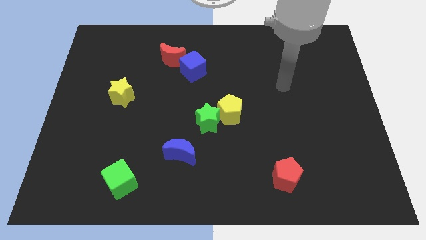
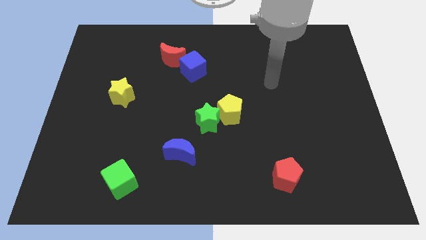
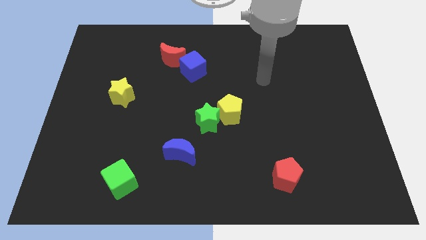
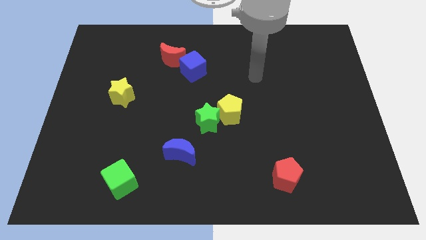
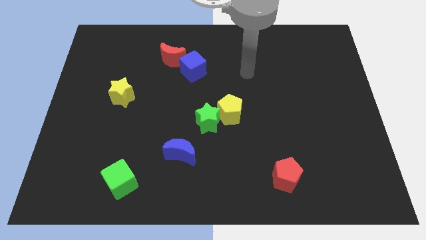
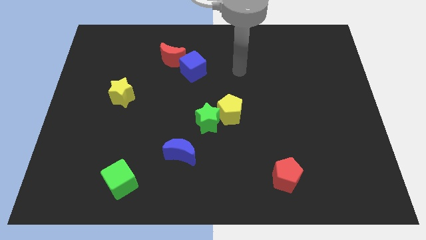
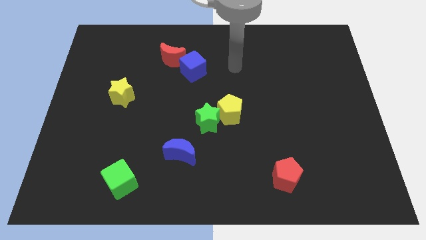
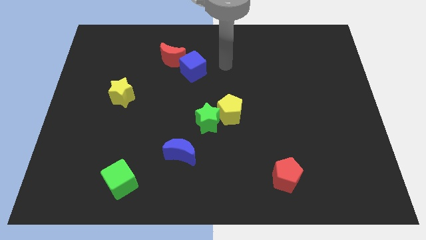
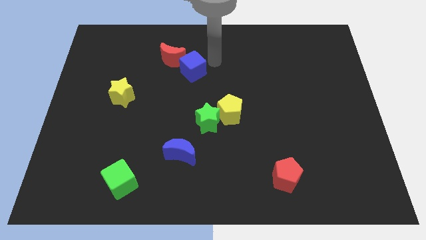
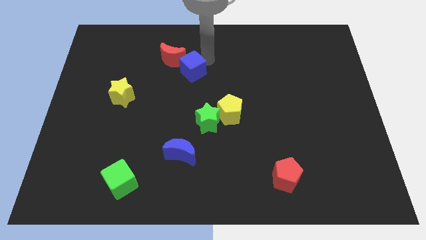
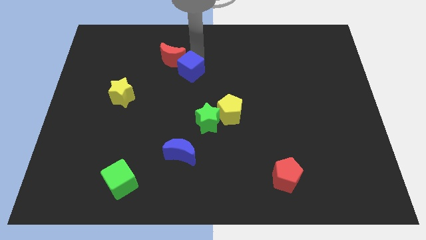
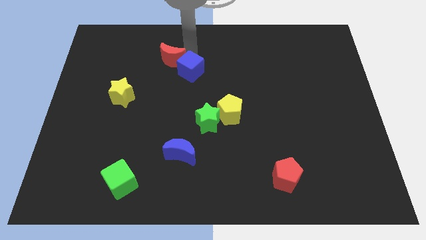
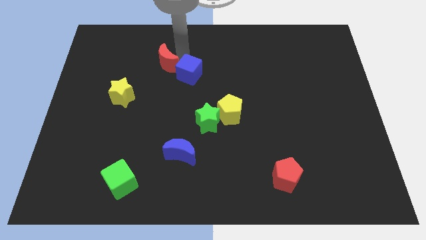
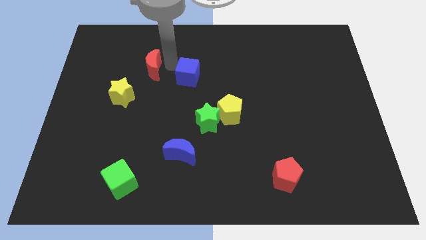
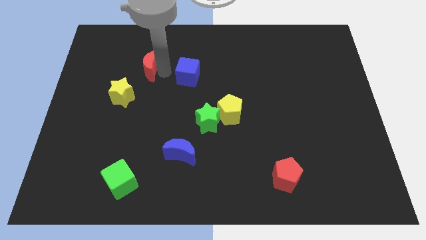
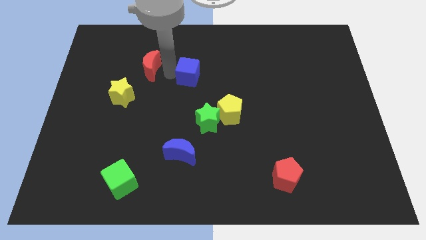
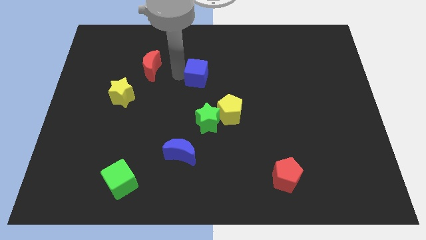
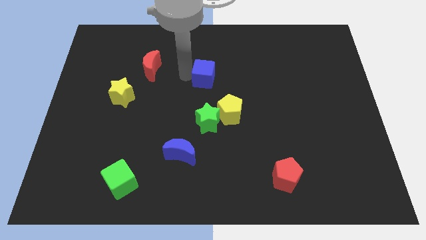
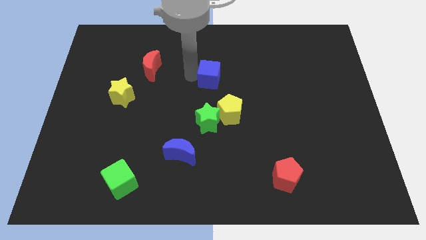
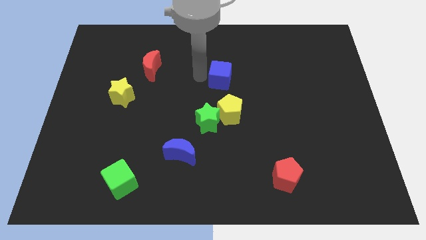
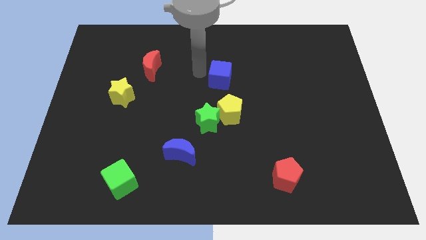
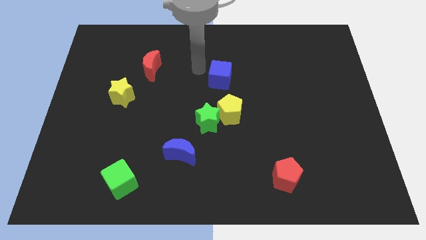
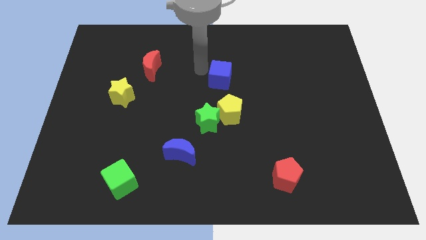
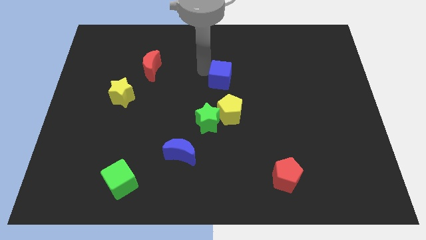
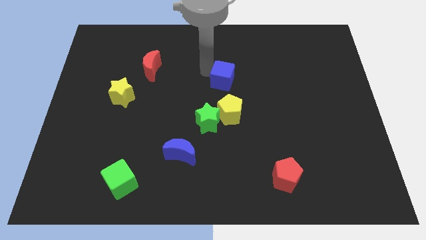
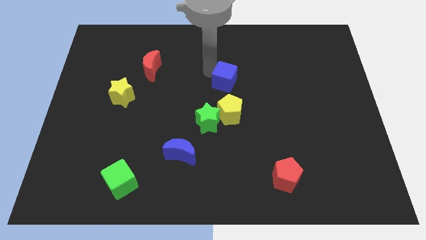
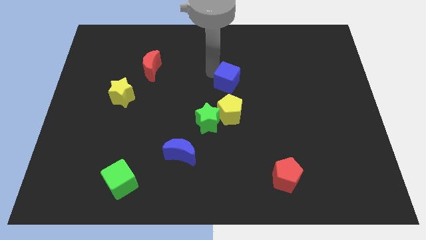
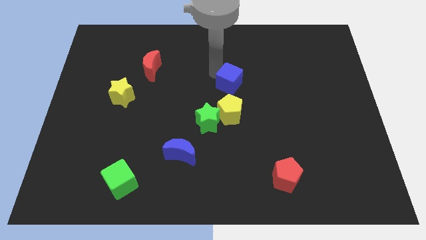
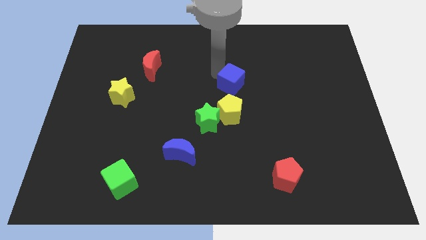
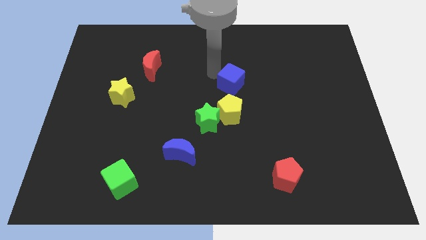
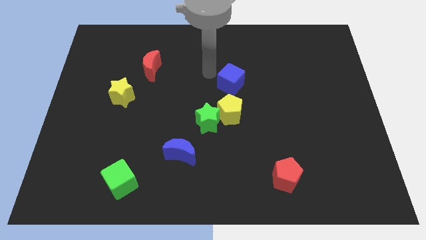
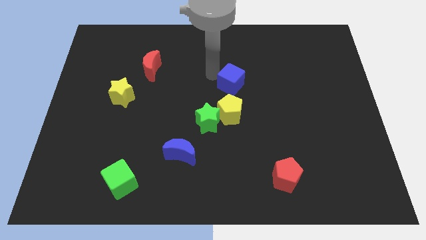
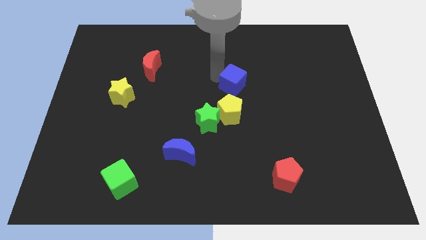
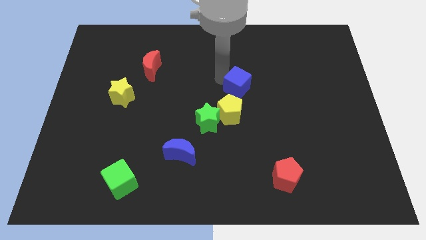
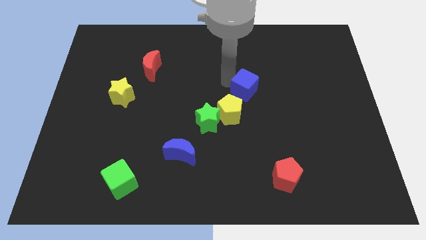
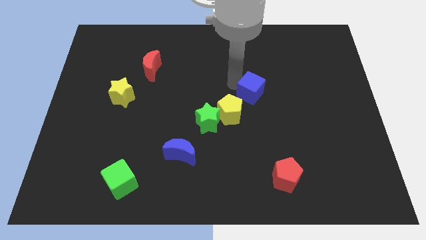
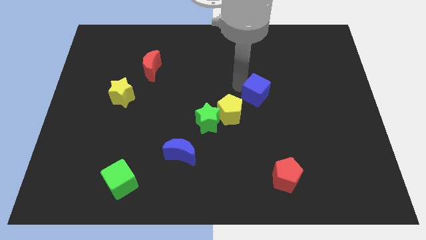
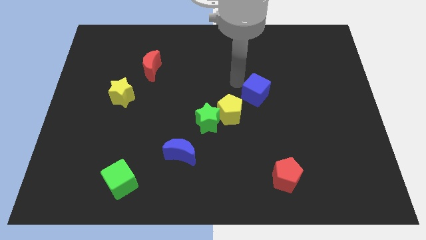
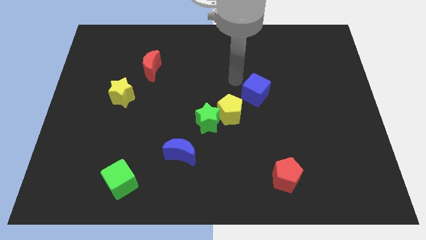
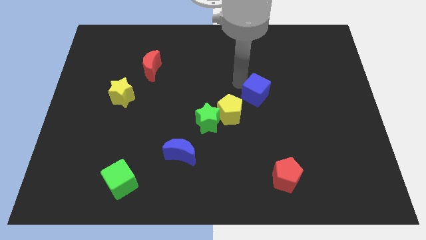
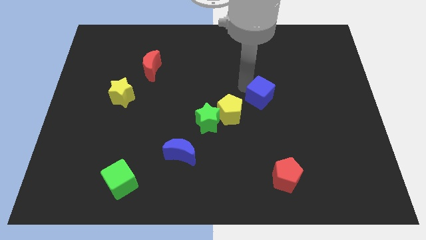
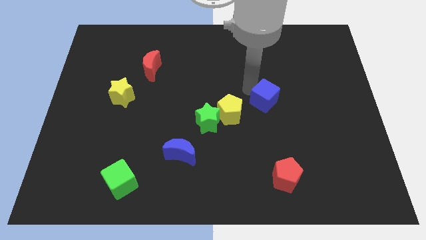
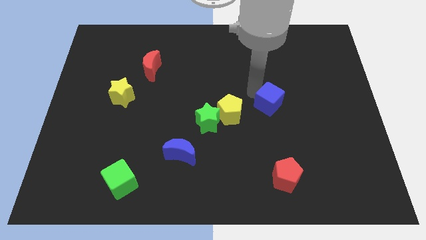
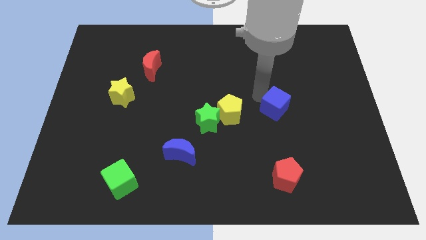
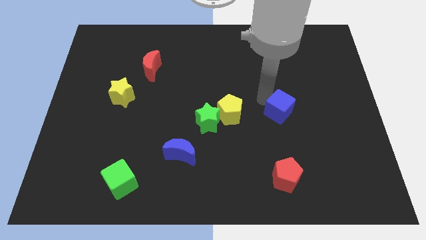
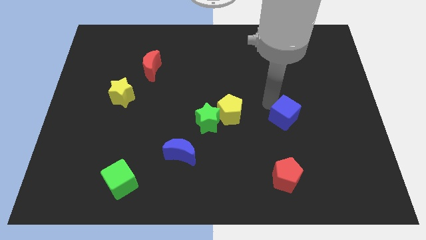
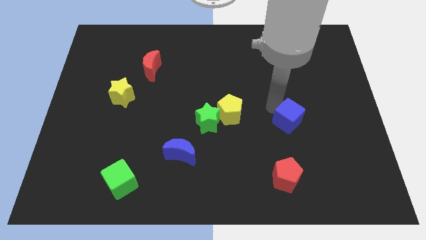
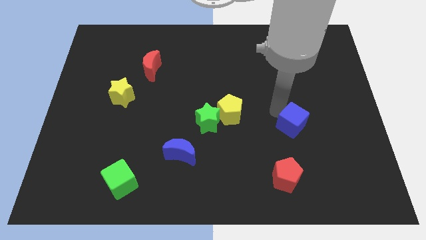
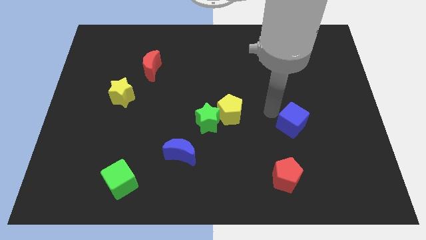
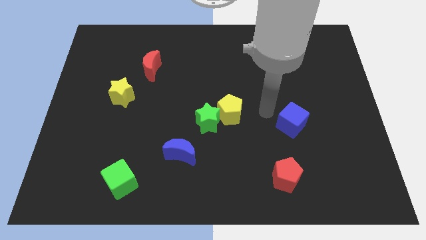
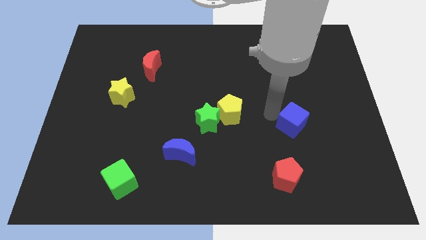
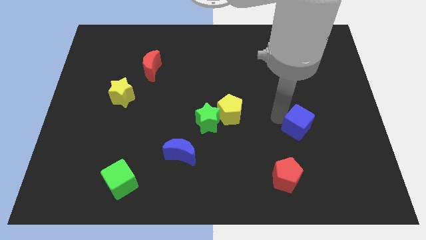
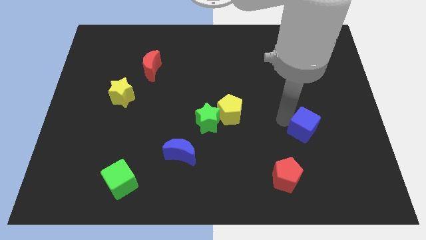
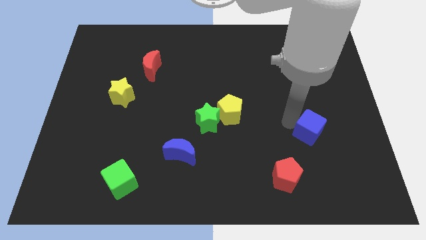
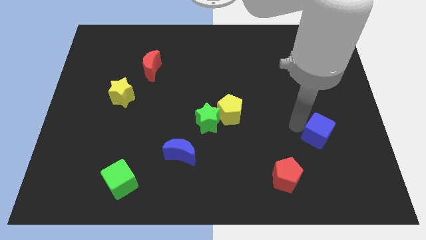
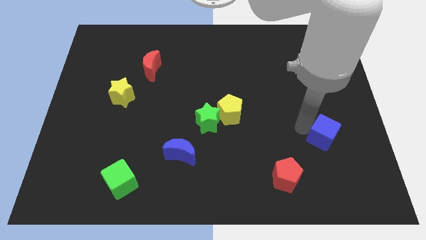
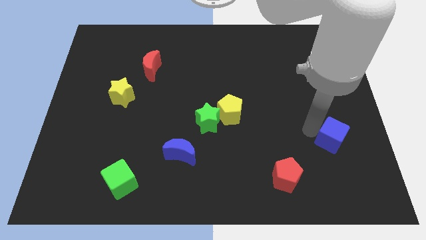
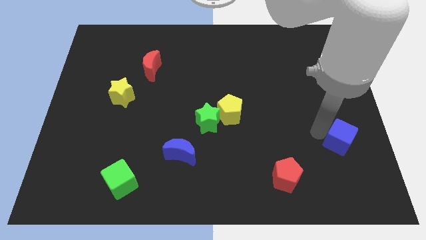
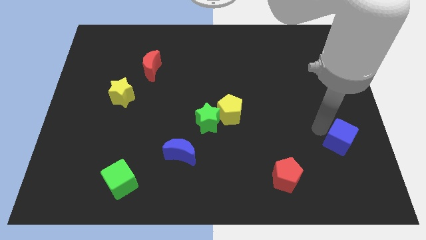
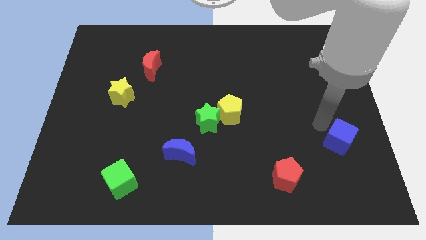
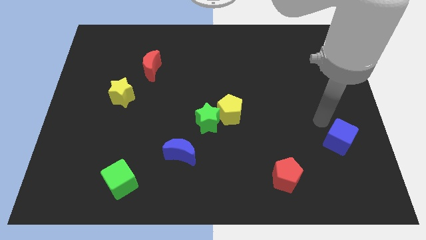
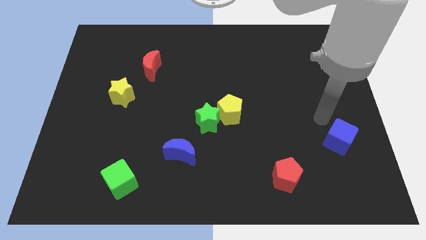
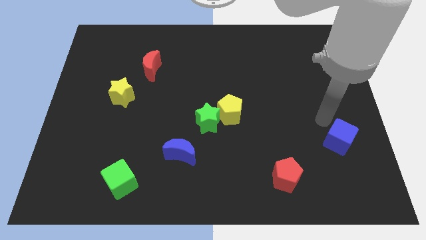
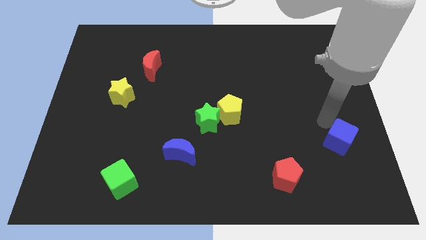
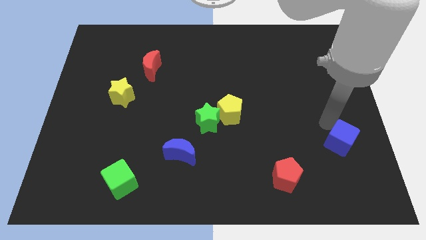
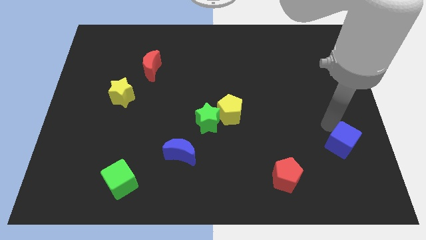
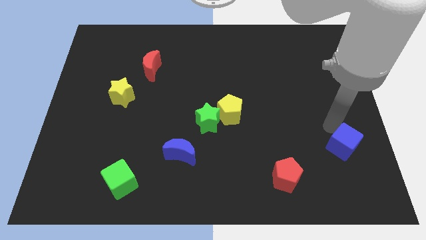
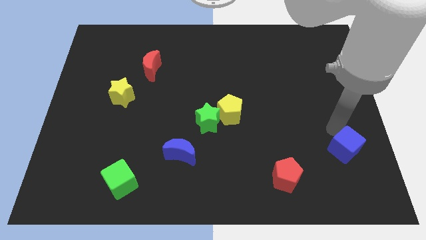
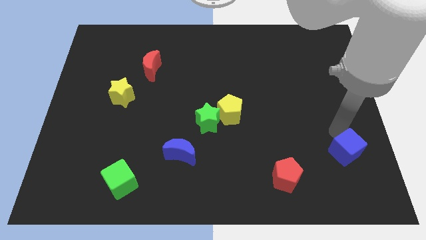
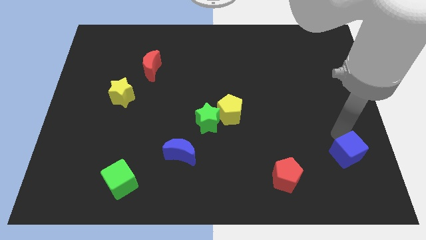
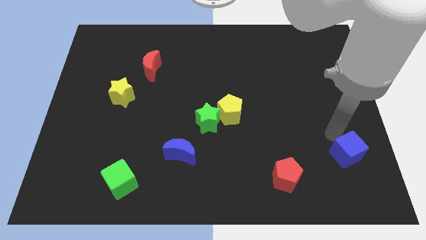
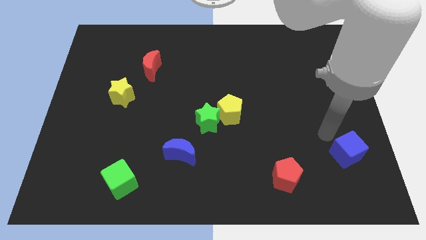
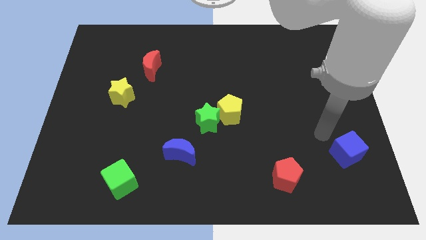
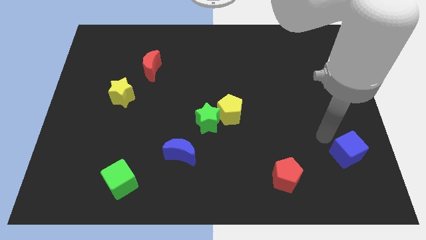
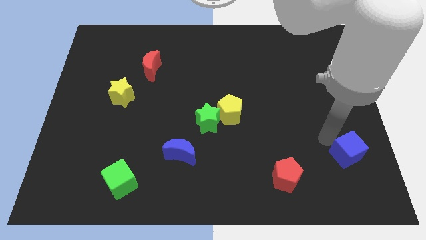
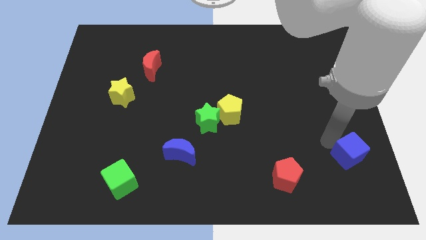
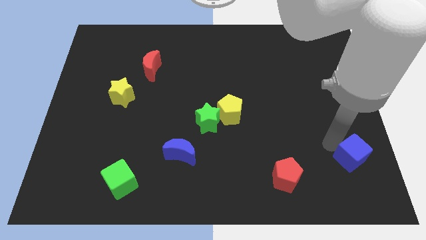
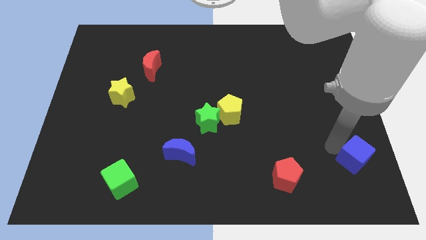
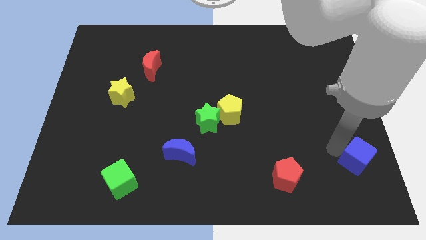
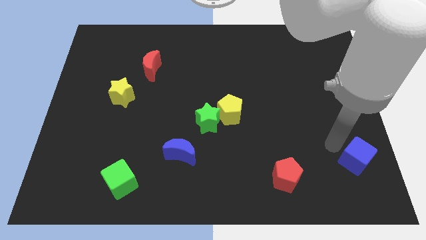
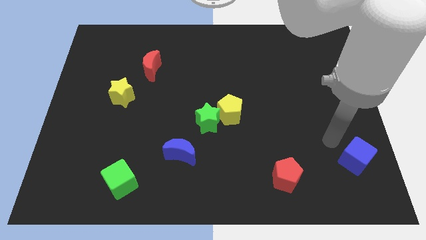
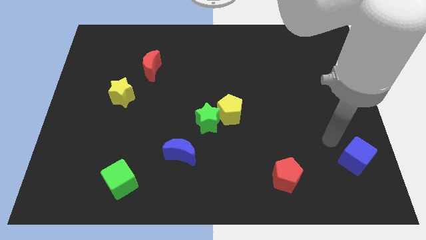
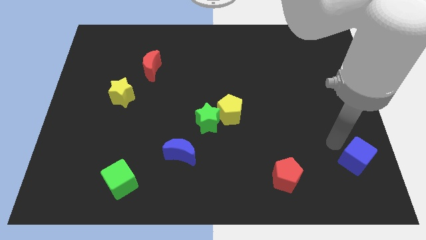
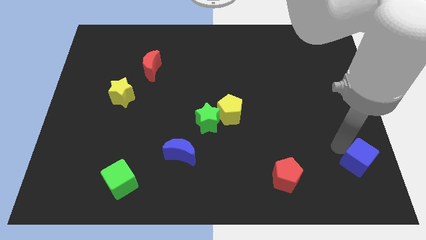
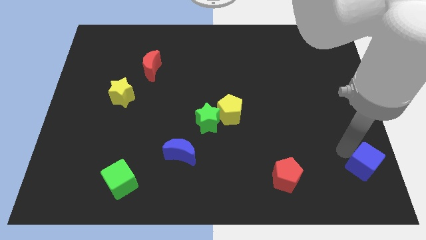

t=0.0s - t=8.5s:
move the blue cube to the bottom right of the board
